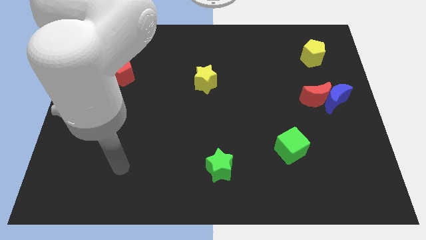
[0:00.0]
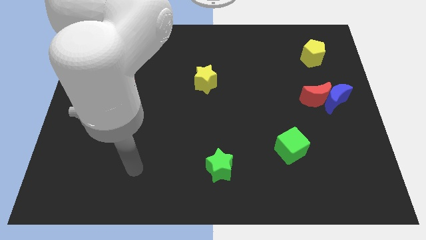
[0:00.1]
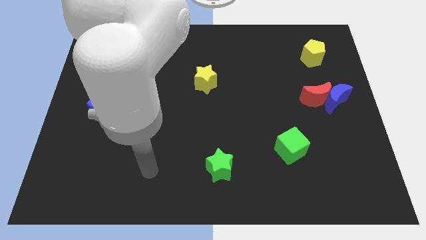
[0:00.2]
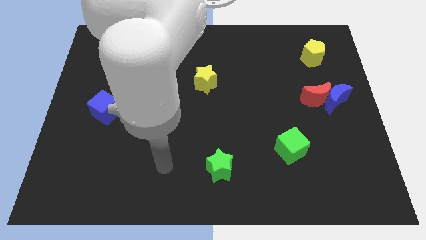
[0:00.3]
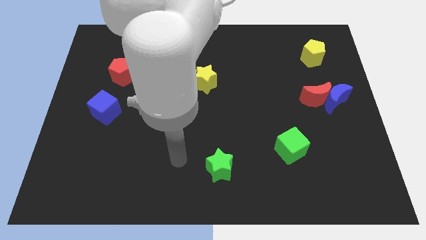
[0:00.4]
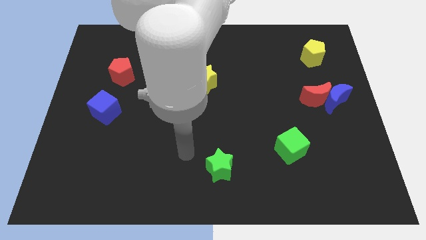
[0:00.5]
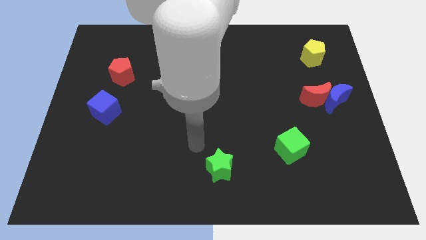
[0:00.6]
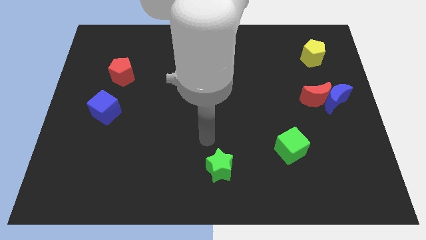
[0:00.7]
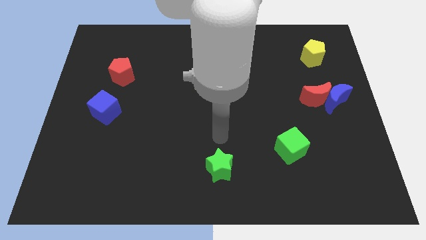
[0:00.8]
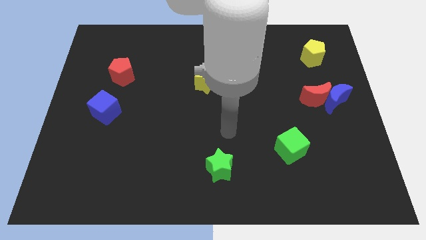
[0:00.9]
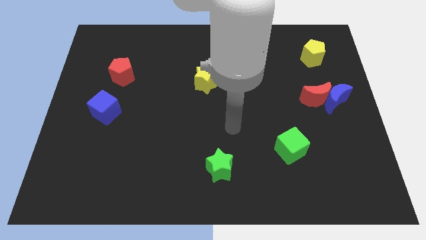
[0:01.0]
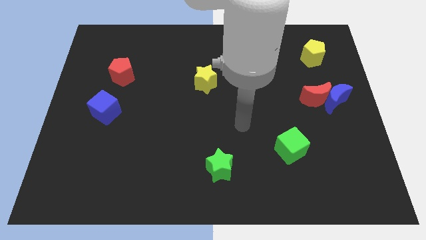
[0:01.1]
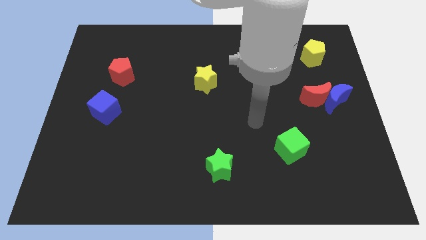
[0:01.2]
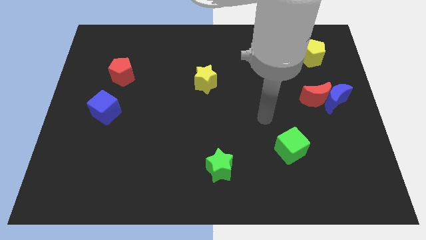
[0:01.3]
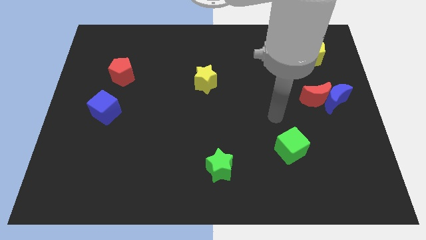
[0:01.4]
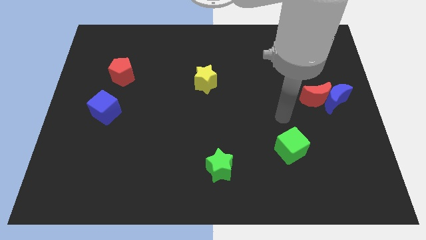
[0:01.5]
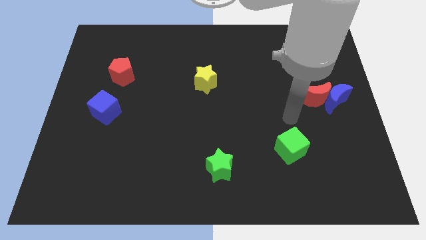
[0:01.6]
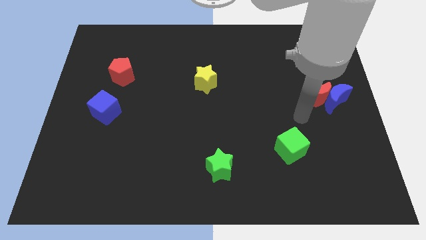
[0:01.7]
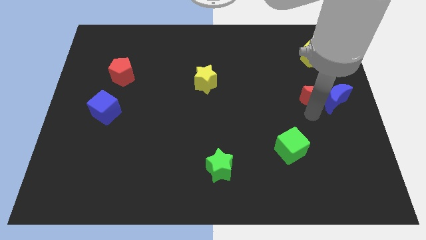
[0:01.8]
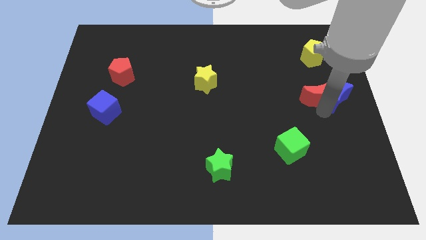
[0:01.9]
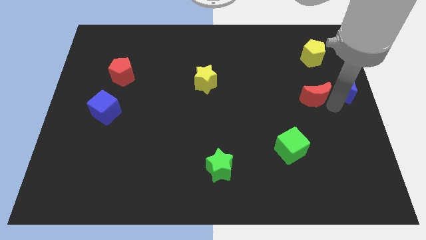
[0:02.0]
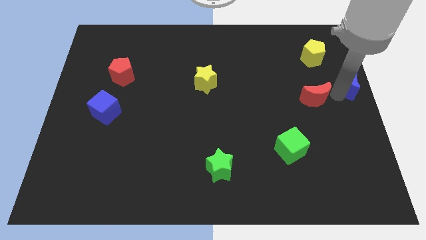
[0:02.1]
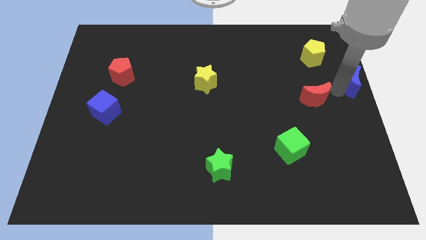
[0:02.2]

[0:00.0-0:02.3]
separate the red moon from the blue moon

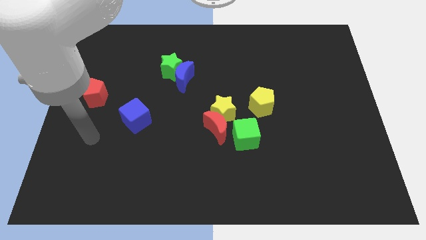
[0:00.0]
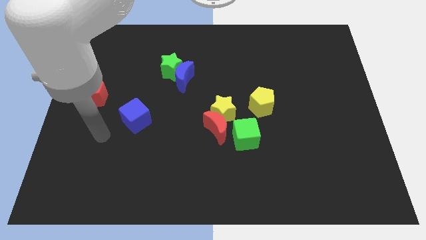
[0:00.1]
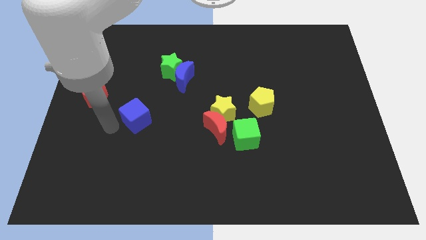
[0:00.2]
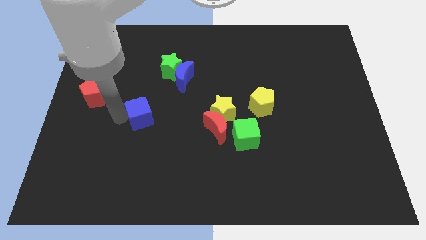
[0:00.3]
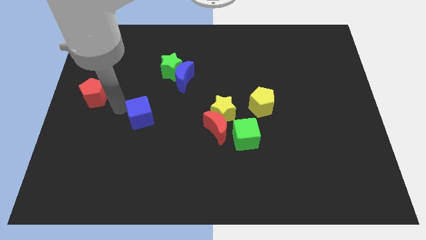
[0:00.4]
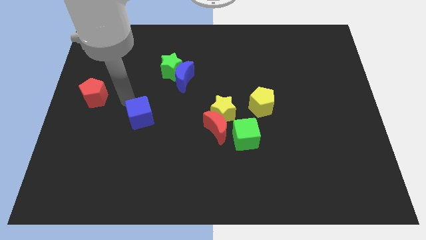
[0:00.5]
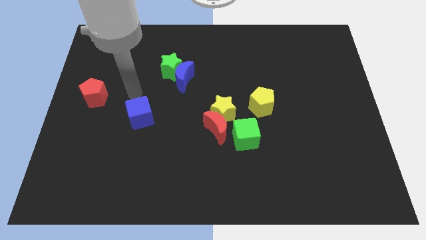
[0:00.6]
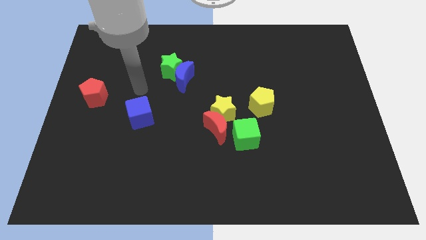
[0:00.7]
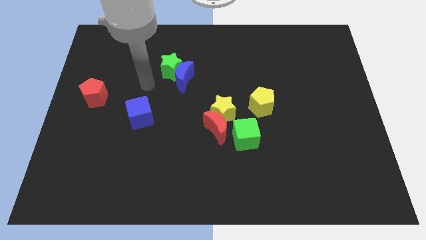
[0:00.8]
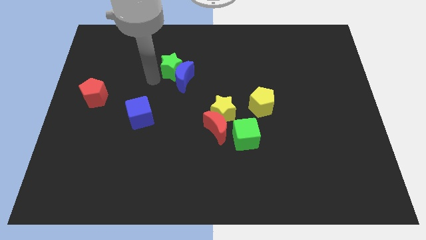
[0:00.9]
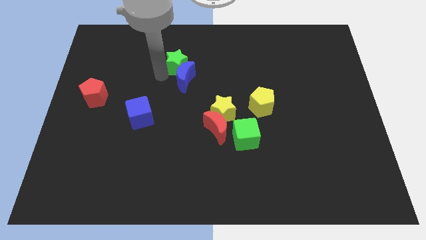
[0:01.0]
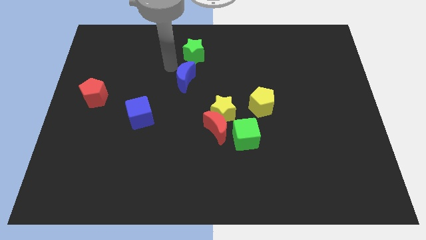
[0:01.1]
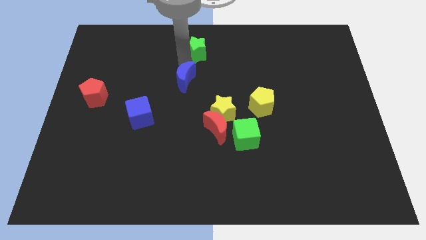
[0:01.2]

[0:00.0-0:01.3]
move the blue moon away from the green star

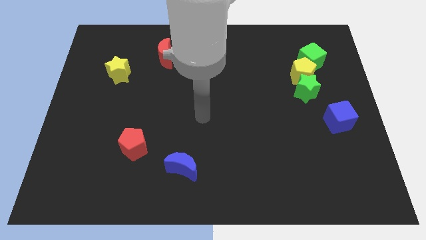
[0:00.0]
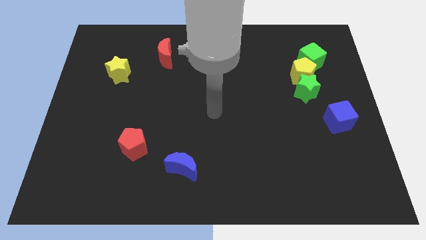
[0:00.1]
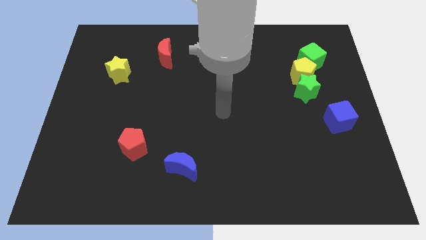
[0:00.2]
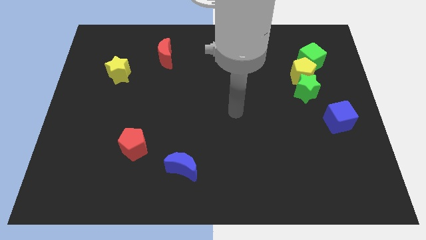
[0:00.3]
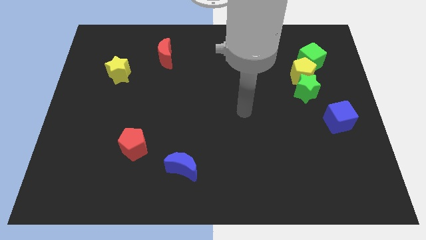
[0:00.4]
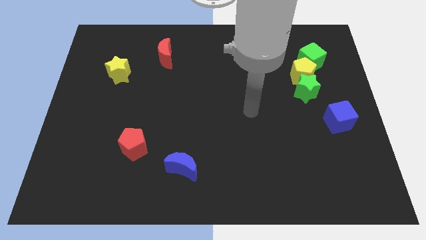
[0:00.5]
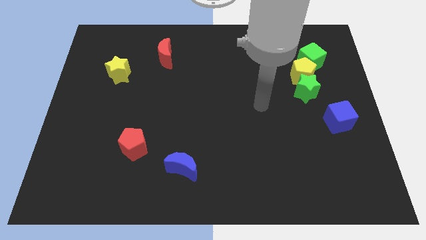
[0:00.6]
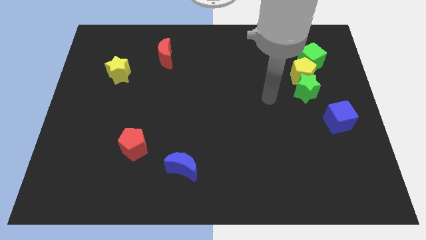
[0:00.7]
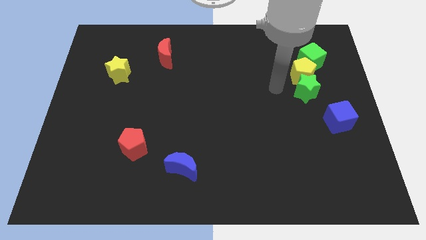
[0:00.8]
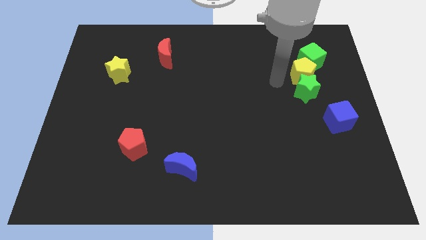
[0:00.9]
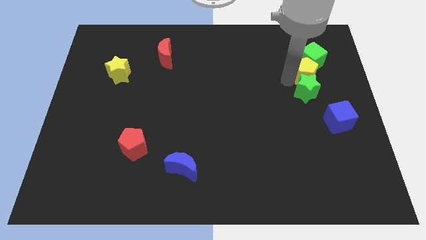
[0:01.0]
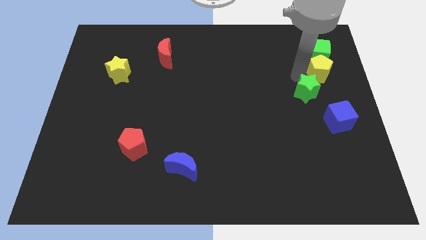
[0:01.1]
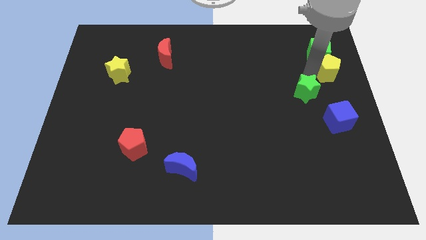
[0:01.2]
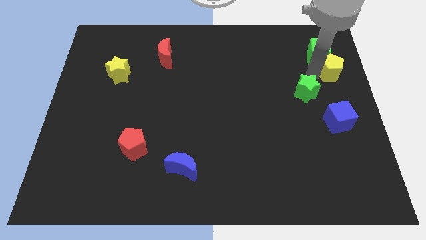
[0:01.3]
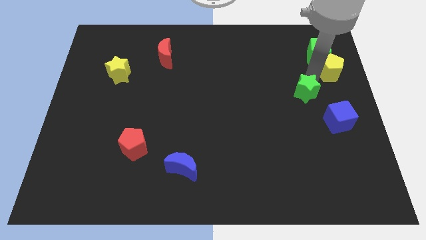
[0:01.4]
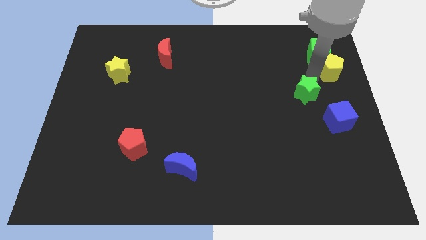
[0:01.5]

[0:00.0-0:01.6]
pull the green star apart from the yellow pentagon

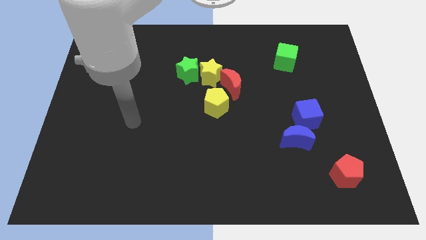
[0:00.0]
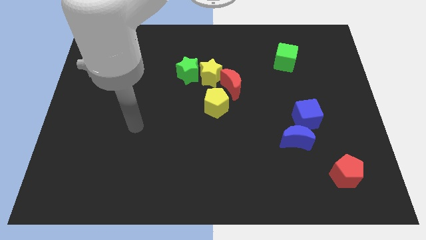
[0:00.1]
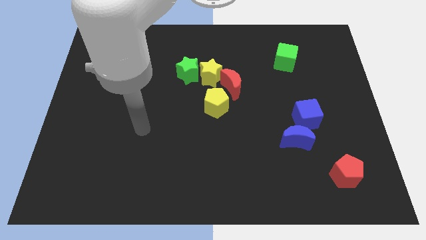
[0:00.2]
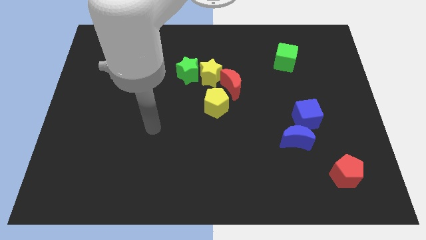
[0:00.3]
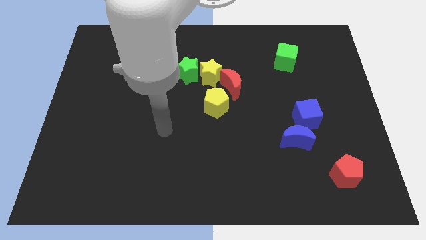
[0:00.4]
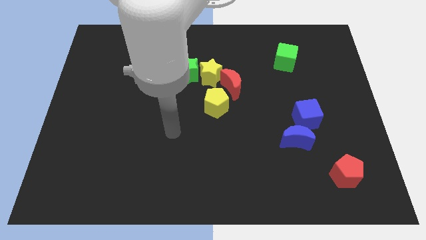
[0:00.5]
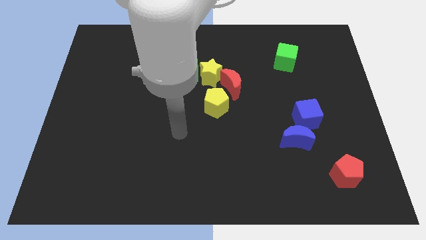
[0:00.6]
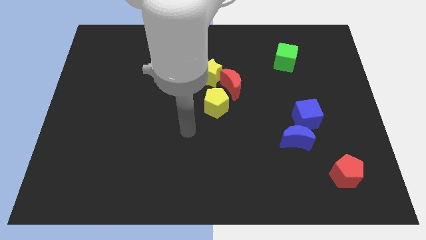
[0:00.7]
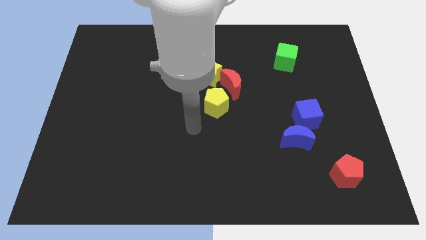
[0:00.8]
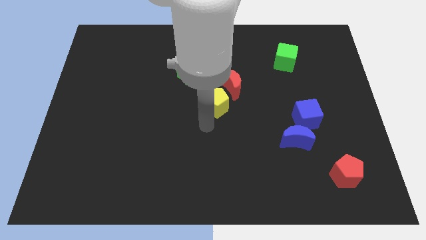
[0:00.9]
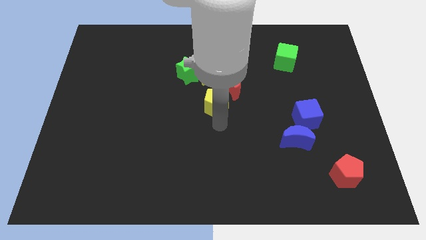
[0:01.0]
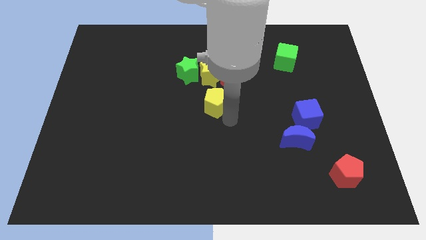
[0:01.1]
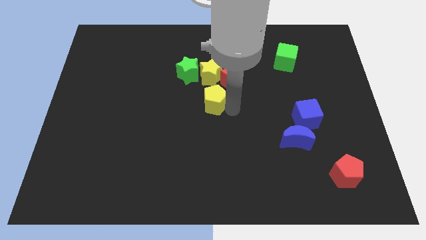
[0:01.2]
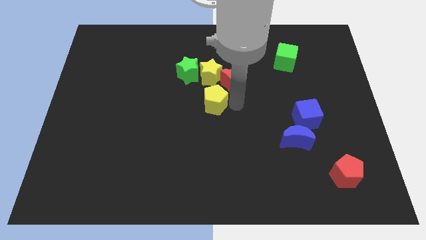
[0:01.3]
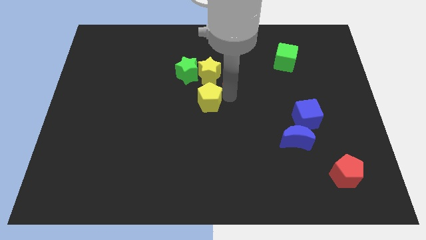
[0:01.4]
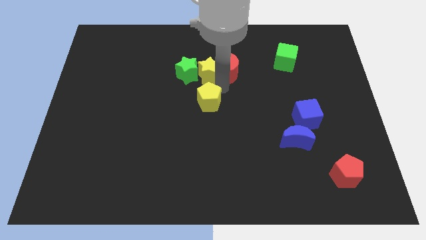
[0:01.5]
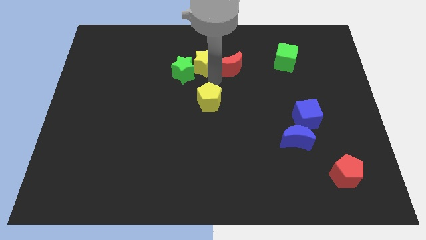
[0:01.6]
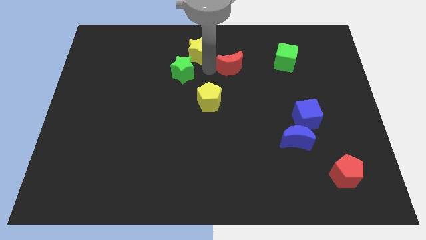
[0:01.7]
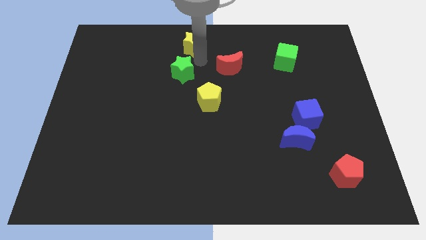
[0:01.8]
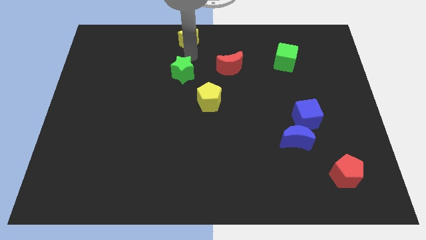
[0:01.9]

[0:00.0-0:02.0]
pull the green star apart from the yellow star

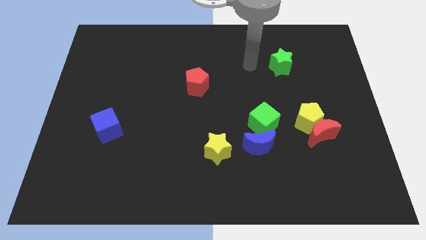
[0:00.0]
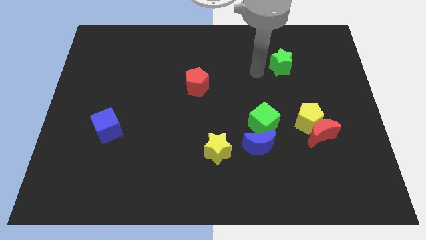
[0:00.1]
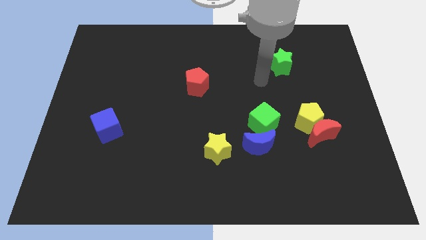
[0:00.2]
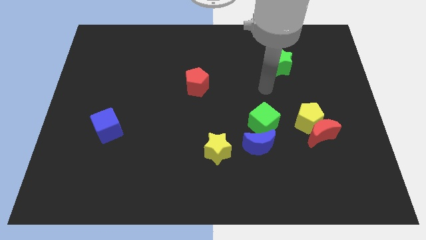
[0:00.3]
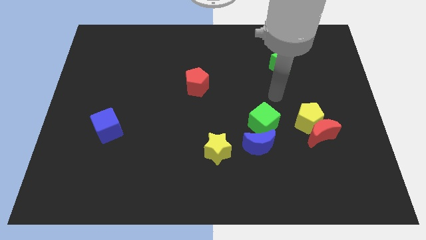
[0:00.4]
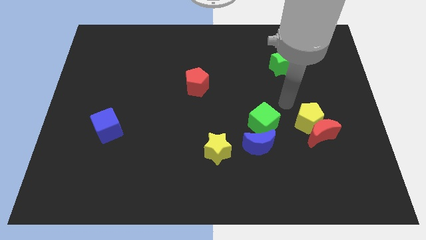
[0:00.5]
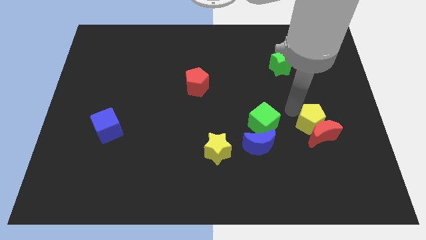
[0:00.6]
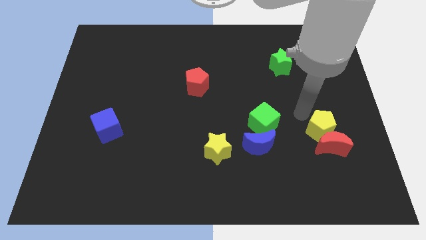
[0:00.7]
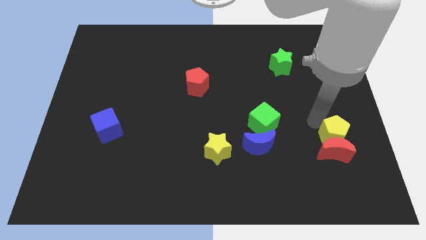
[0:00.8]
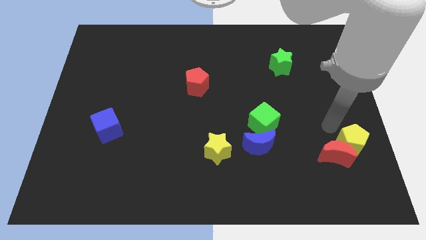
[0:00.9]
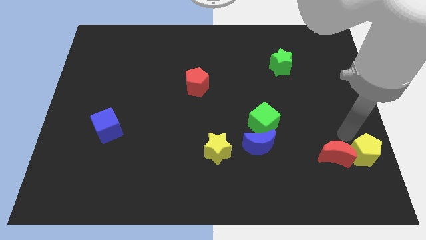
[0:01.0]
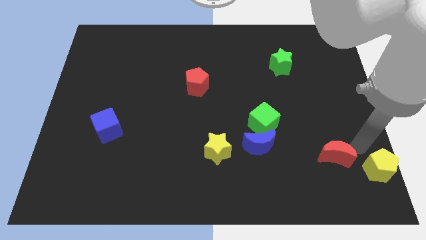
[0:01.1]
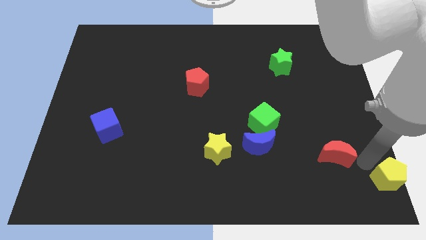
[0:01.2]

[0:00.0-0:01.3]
separate the red moon from the yellow pentagon

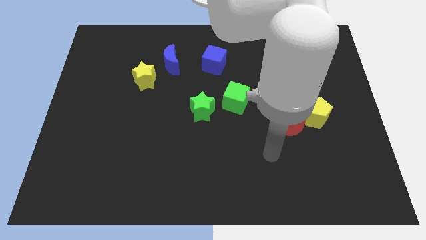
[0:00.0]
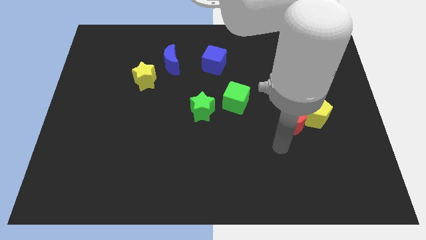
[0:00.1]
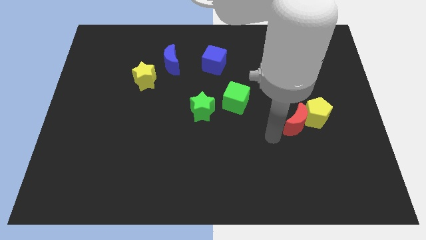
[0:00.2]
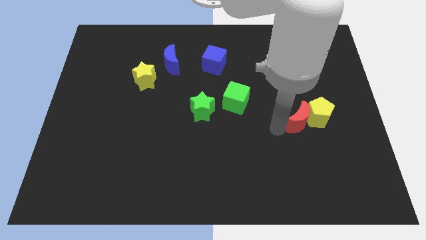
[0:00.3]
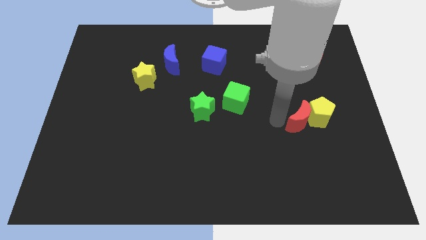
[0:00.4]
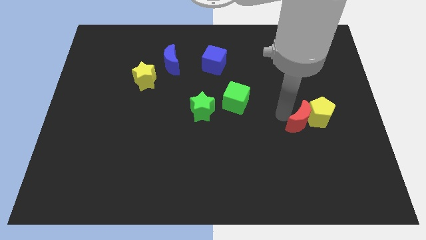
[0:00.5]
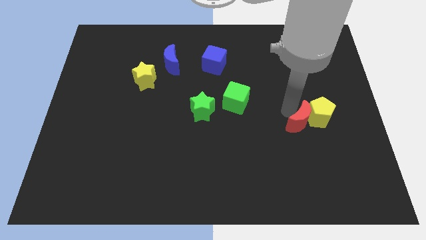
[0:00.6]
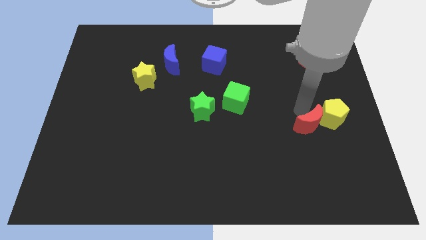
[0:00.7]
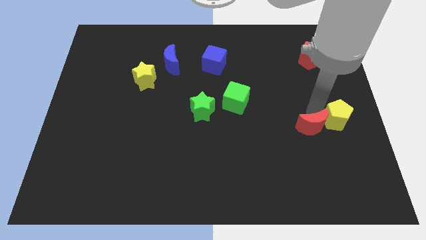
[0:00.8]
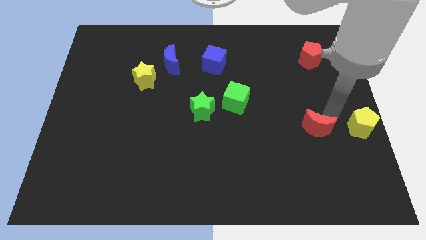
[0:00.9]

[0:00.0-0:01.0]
pull the red moon apart from the yellow pentagon
